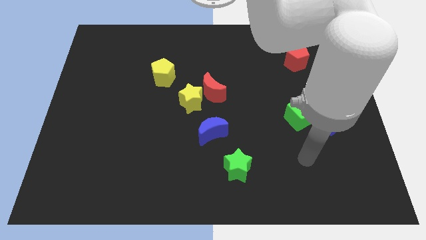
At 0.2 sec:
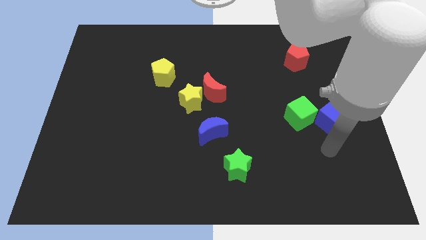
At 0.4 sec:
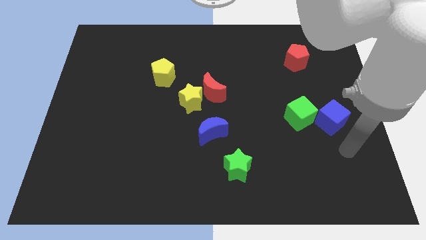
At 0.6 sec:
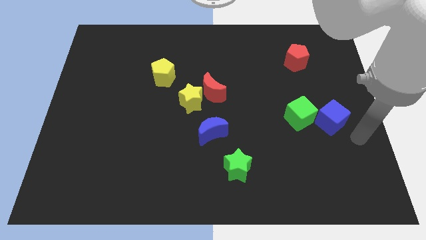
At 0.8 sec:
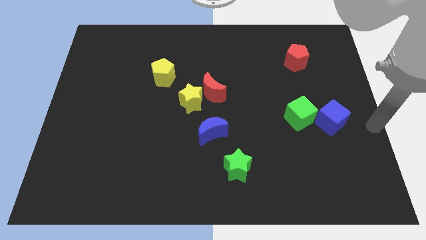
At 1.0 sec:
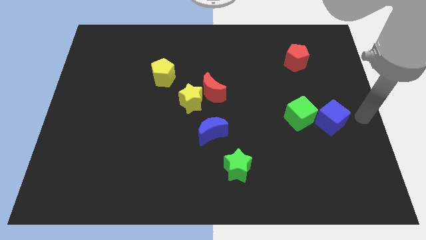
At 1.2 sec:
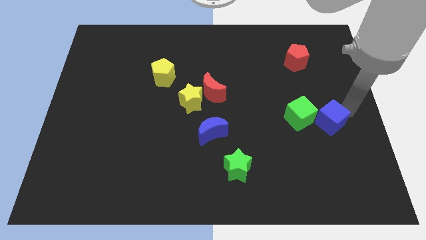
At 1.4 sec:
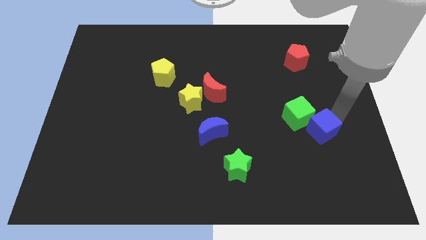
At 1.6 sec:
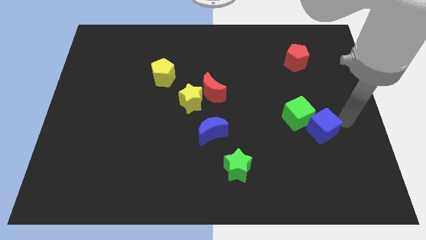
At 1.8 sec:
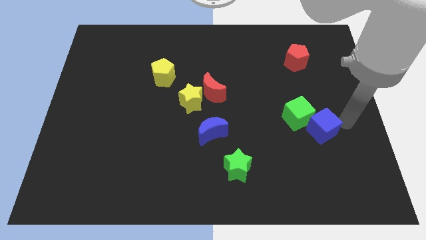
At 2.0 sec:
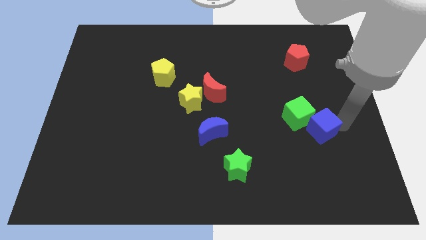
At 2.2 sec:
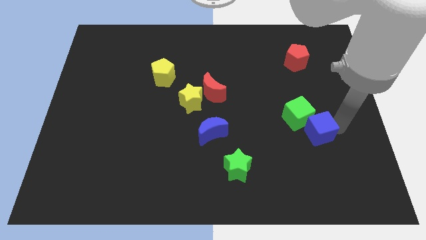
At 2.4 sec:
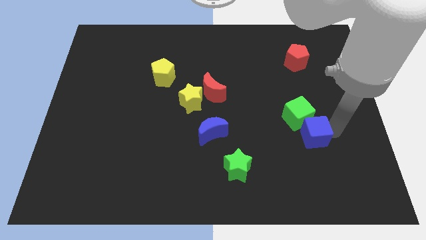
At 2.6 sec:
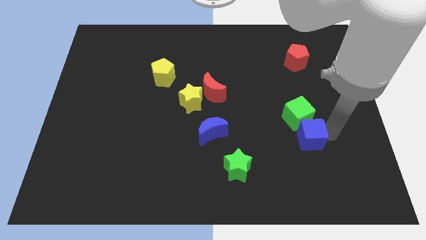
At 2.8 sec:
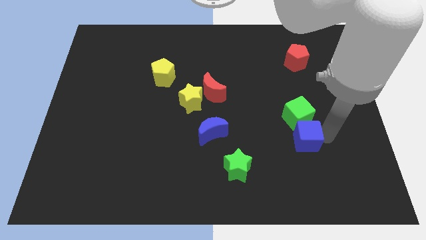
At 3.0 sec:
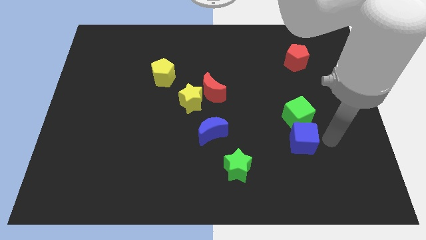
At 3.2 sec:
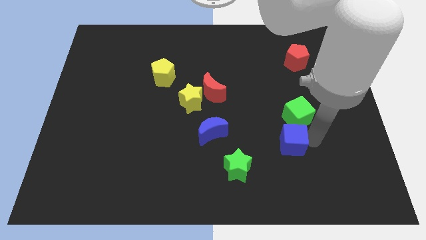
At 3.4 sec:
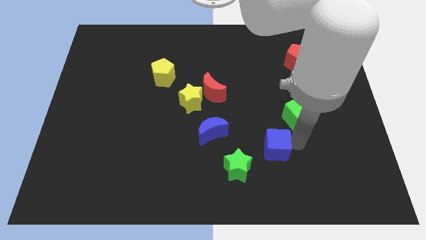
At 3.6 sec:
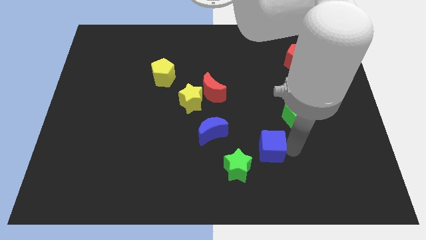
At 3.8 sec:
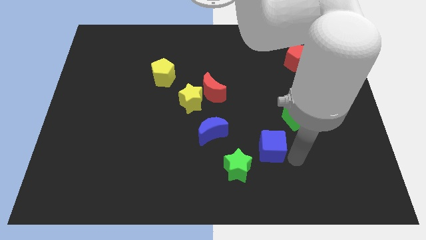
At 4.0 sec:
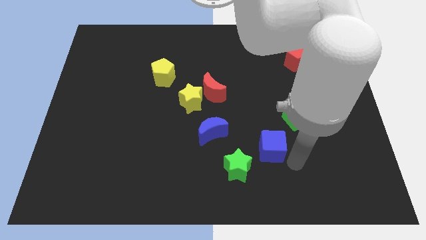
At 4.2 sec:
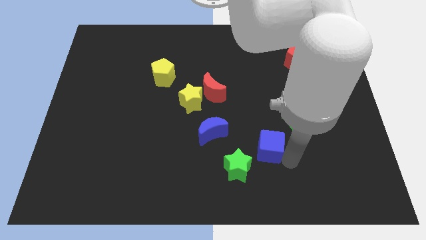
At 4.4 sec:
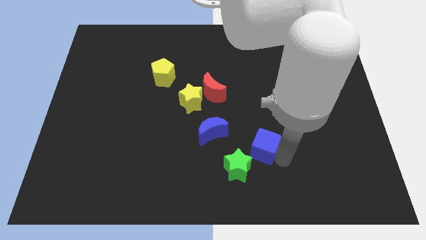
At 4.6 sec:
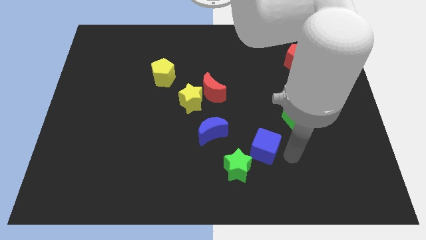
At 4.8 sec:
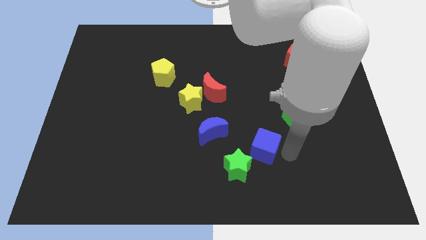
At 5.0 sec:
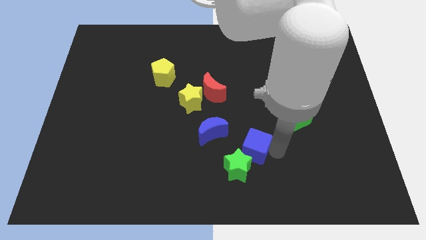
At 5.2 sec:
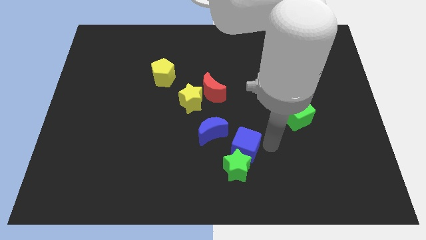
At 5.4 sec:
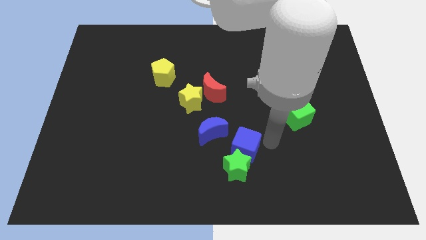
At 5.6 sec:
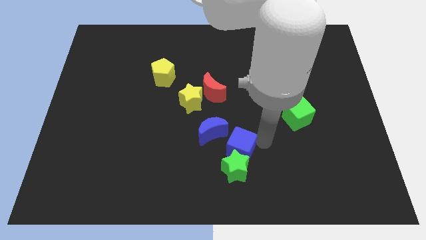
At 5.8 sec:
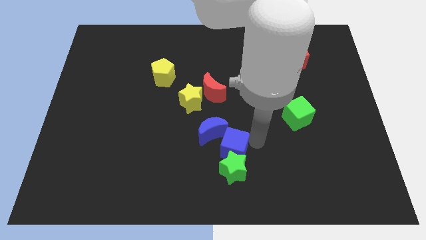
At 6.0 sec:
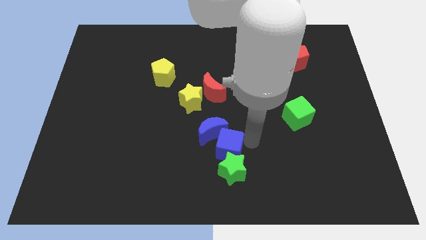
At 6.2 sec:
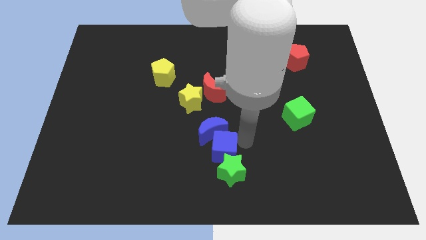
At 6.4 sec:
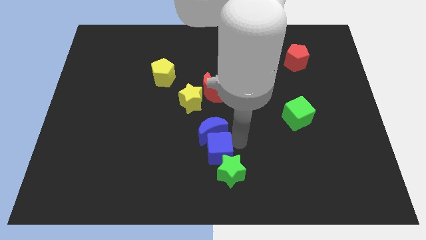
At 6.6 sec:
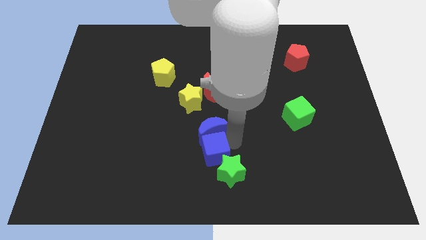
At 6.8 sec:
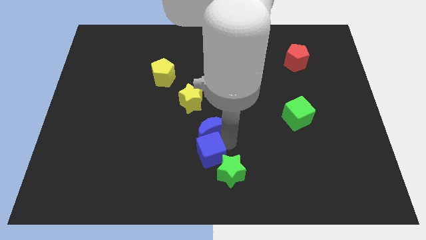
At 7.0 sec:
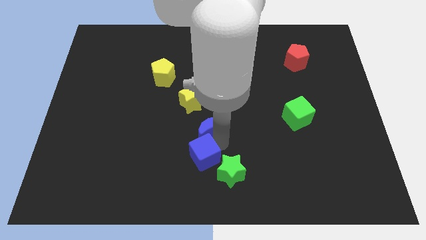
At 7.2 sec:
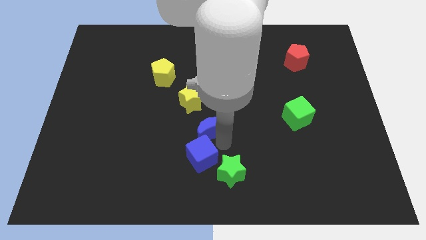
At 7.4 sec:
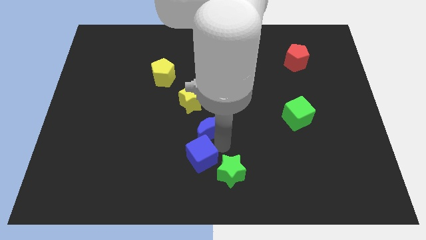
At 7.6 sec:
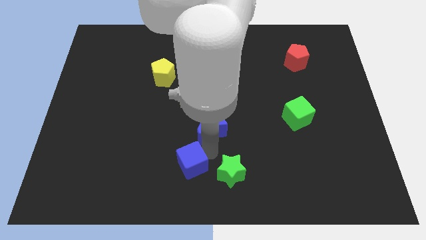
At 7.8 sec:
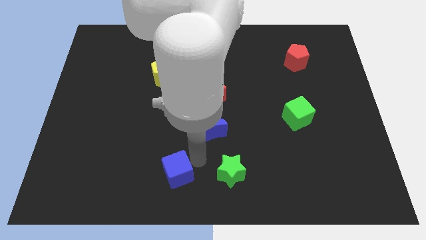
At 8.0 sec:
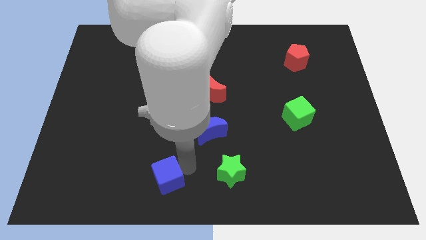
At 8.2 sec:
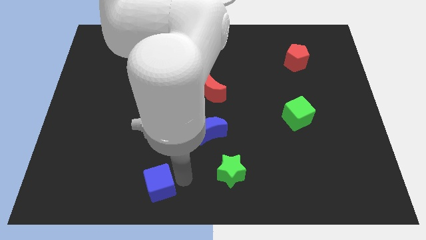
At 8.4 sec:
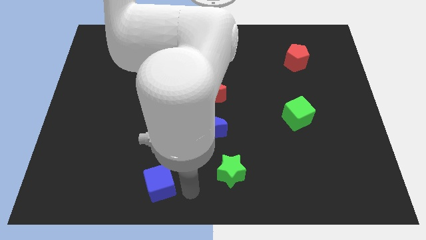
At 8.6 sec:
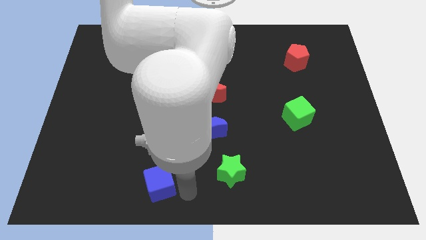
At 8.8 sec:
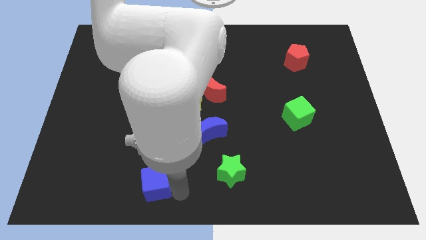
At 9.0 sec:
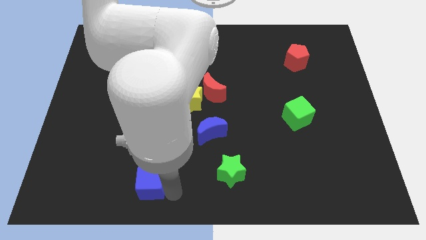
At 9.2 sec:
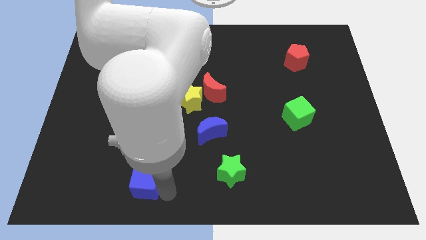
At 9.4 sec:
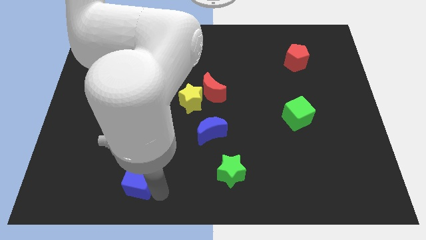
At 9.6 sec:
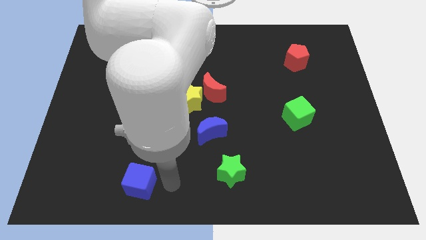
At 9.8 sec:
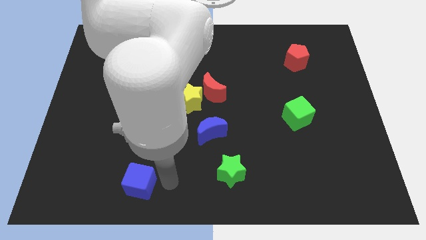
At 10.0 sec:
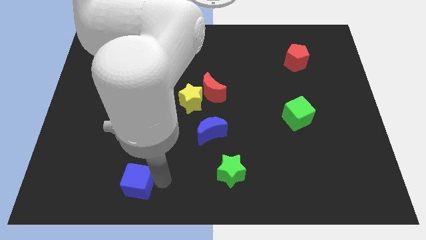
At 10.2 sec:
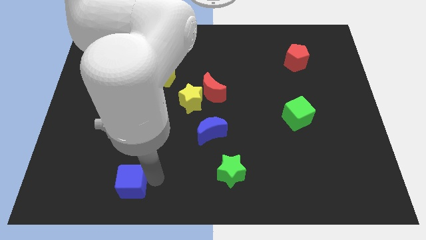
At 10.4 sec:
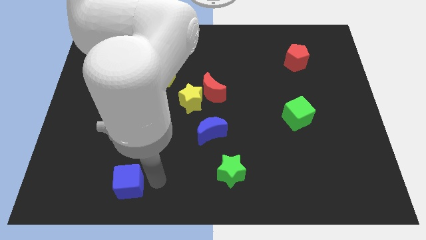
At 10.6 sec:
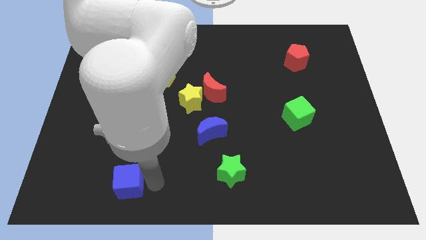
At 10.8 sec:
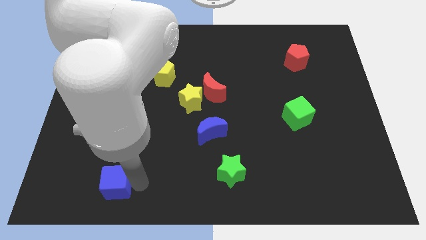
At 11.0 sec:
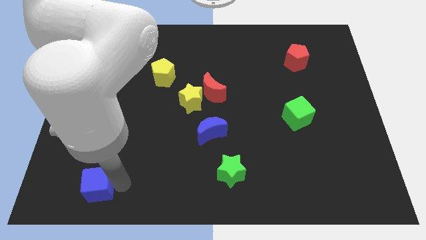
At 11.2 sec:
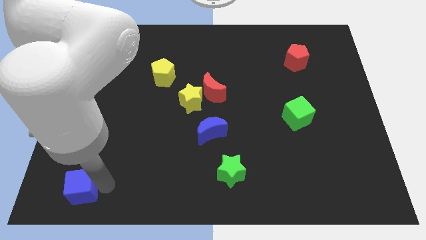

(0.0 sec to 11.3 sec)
put the blue cube to the lower left corner

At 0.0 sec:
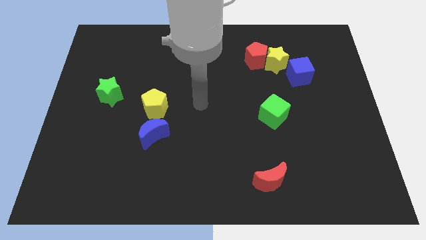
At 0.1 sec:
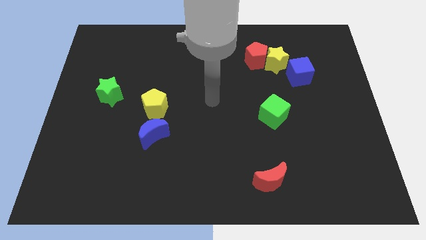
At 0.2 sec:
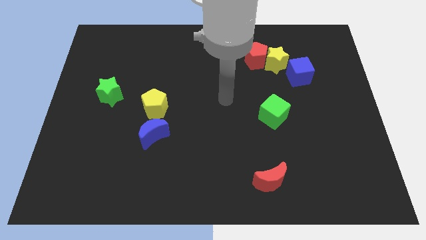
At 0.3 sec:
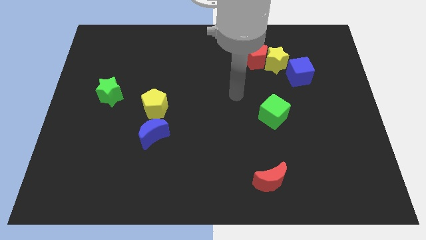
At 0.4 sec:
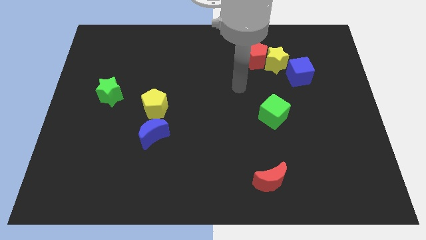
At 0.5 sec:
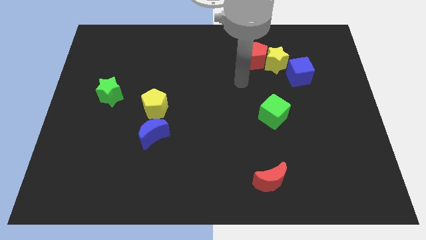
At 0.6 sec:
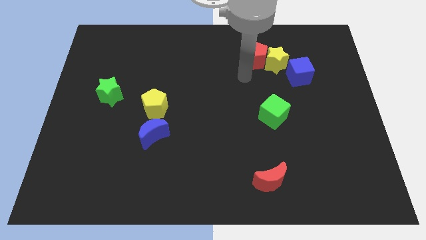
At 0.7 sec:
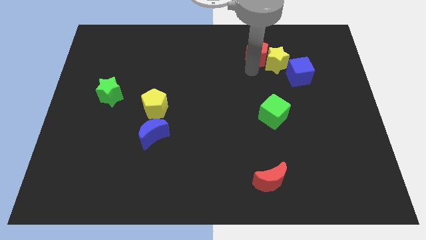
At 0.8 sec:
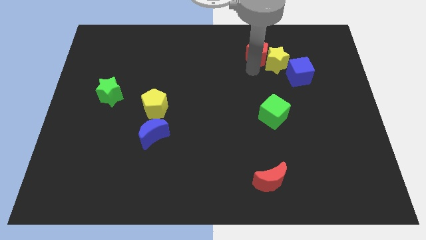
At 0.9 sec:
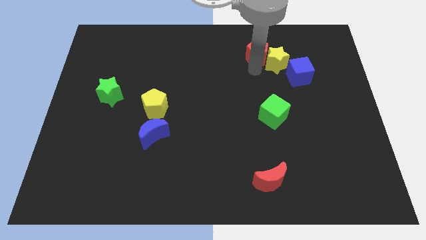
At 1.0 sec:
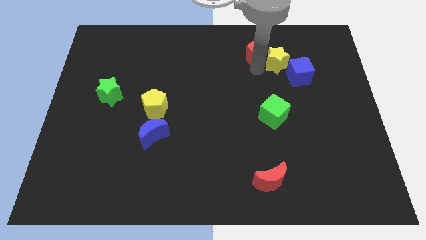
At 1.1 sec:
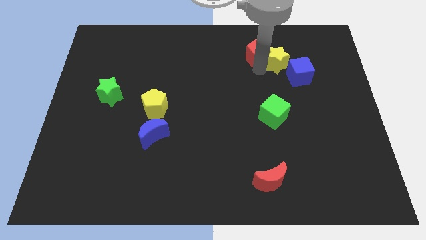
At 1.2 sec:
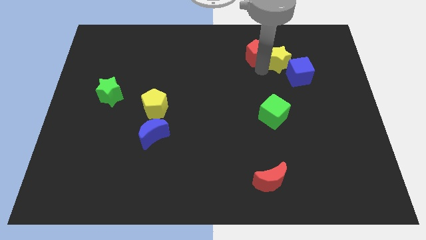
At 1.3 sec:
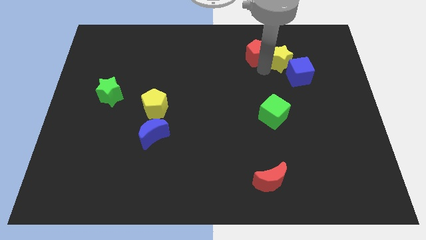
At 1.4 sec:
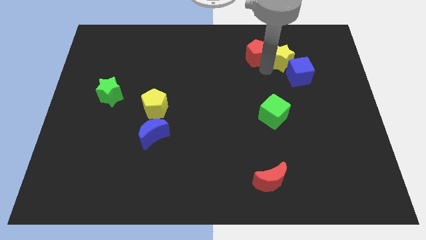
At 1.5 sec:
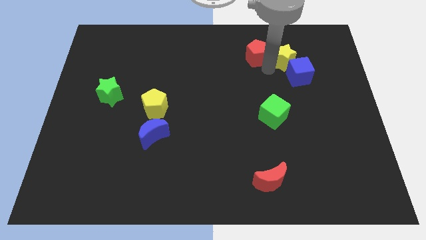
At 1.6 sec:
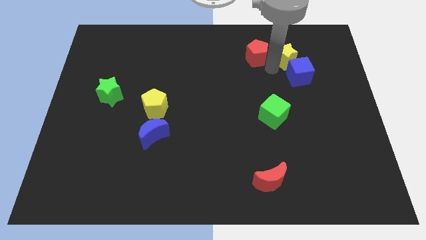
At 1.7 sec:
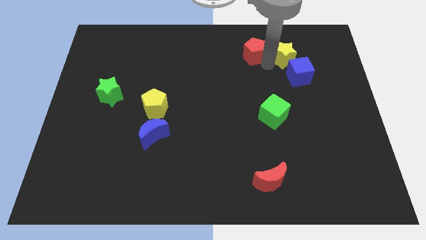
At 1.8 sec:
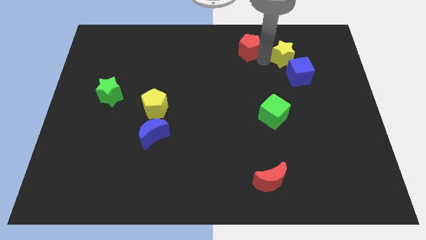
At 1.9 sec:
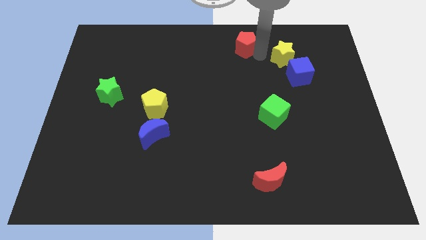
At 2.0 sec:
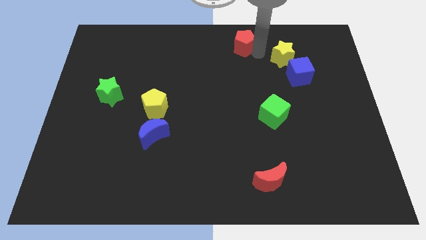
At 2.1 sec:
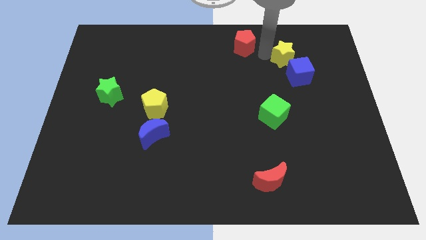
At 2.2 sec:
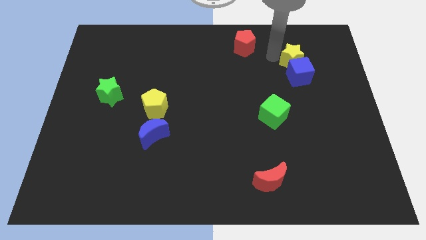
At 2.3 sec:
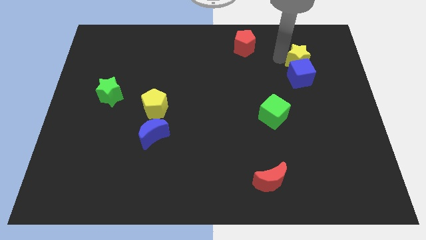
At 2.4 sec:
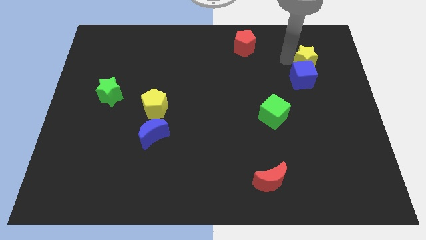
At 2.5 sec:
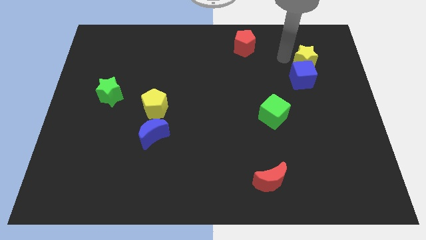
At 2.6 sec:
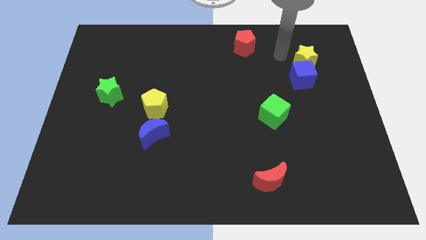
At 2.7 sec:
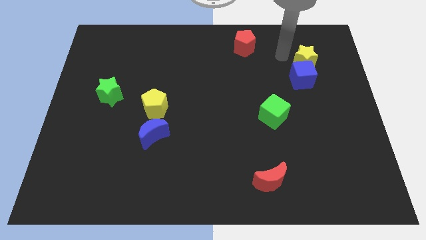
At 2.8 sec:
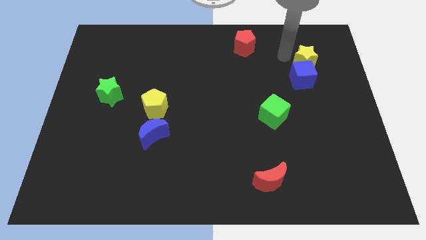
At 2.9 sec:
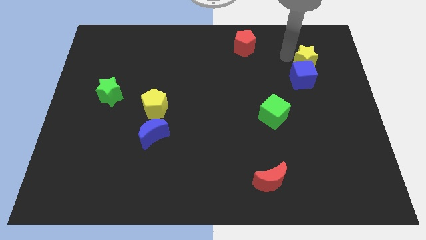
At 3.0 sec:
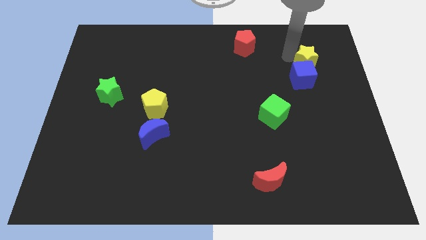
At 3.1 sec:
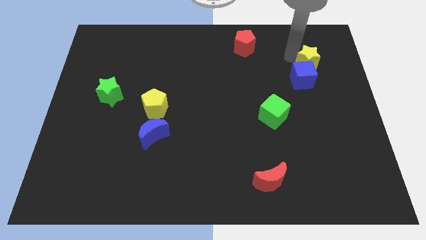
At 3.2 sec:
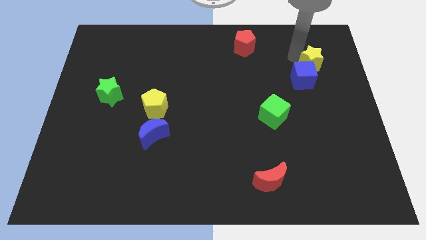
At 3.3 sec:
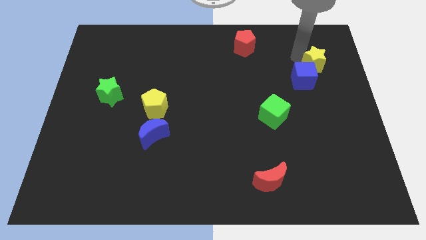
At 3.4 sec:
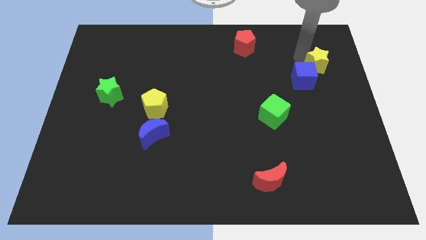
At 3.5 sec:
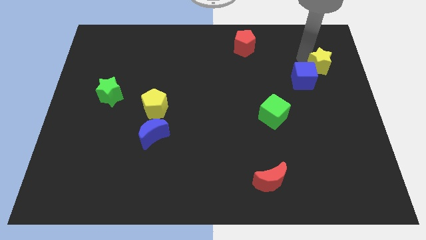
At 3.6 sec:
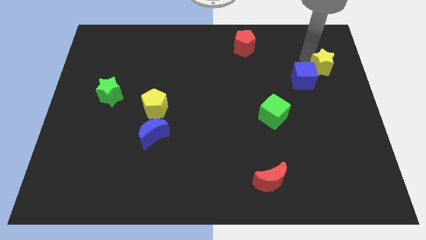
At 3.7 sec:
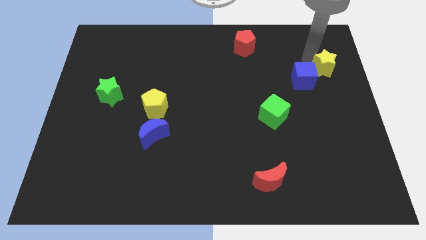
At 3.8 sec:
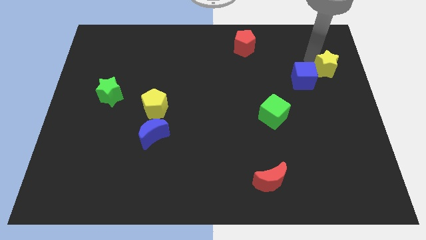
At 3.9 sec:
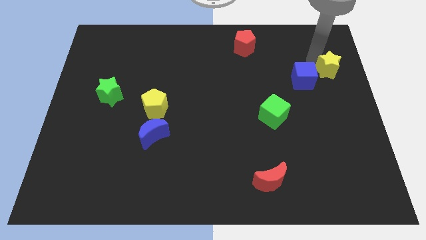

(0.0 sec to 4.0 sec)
put the yellow star to the center right
